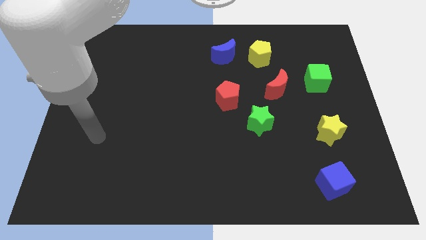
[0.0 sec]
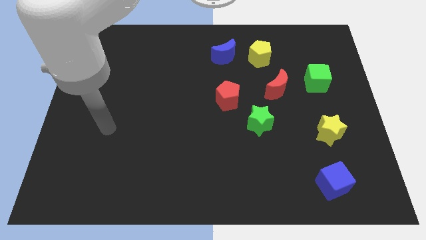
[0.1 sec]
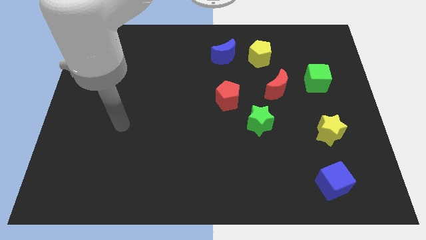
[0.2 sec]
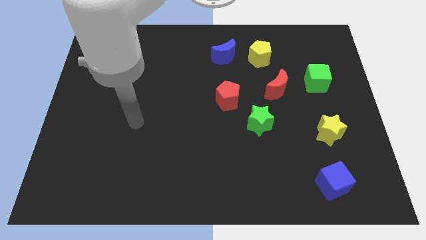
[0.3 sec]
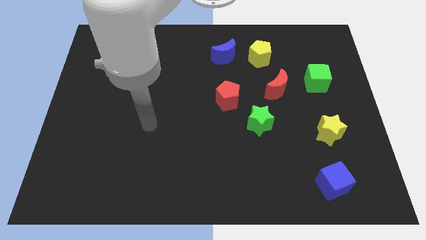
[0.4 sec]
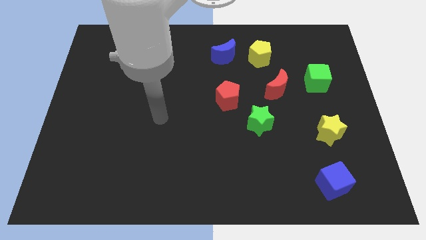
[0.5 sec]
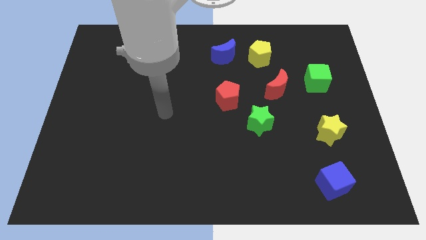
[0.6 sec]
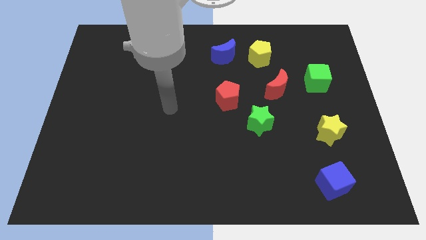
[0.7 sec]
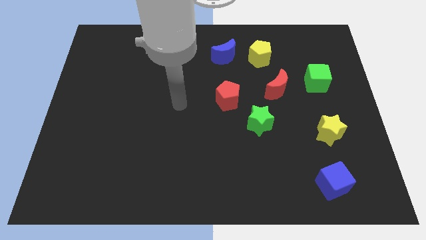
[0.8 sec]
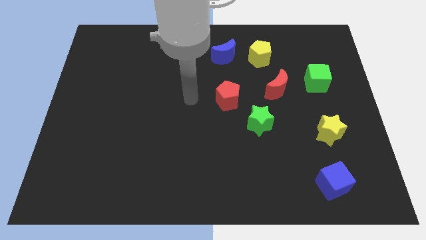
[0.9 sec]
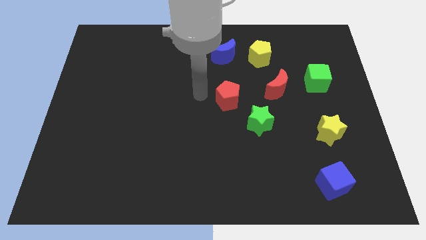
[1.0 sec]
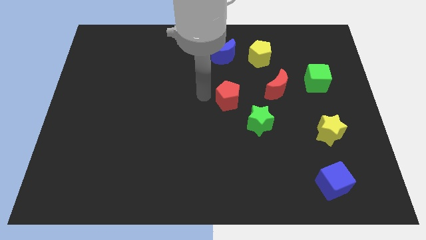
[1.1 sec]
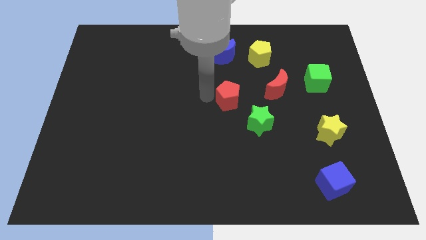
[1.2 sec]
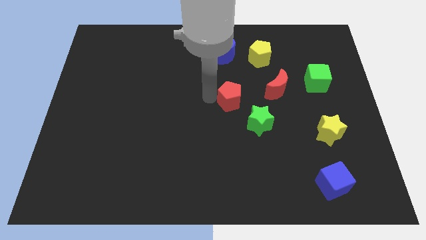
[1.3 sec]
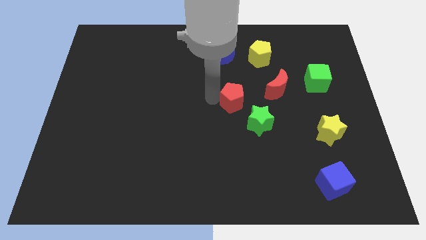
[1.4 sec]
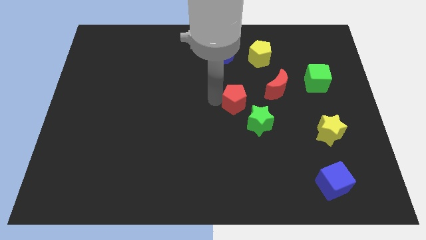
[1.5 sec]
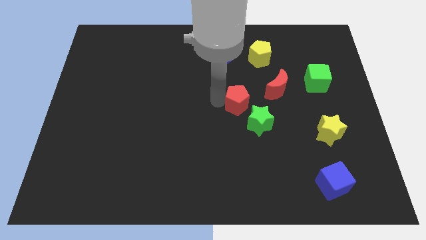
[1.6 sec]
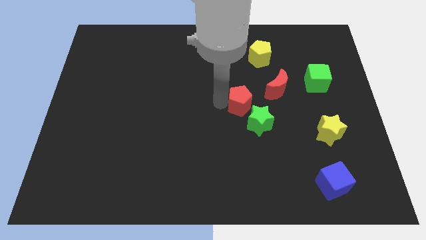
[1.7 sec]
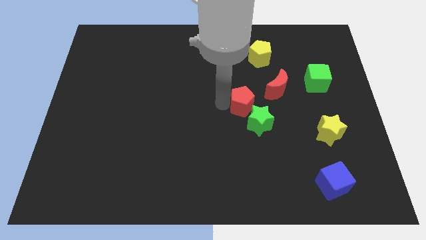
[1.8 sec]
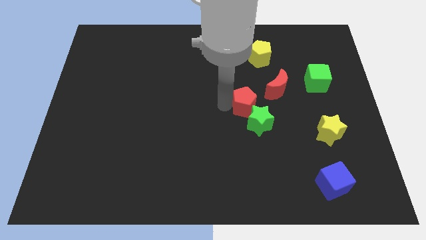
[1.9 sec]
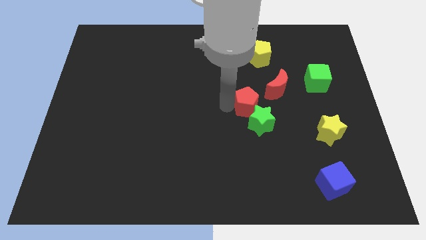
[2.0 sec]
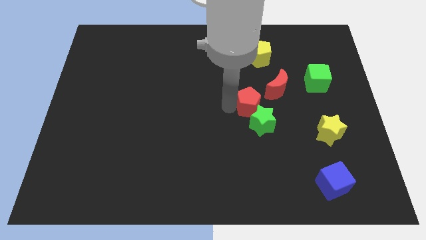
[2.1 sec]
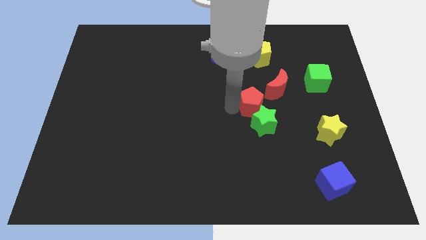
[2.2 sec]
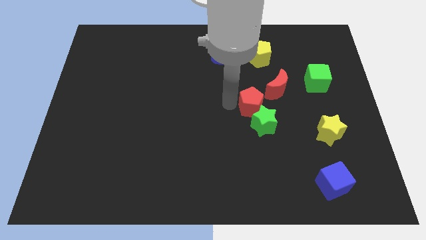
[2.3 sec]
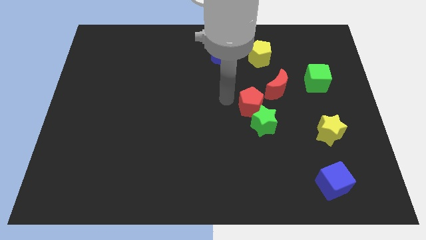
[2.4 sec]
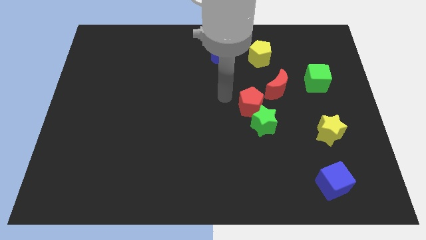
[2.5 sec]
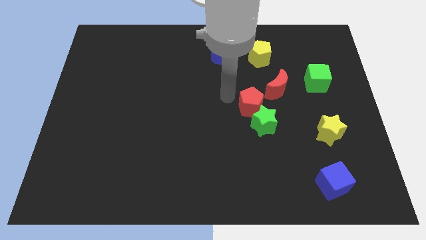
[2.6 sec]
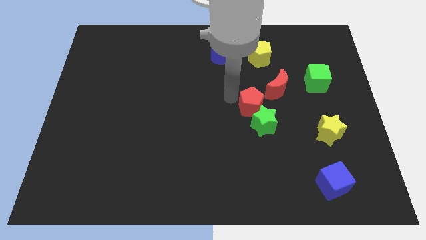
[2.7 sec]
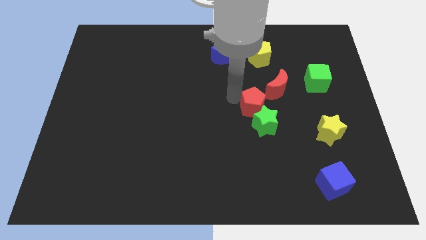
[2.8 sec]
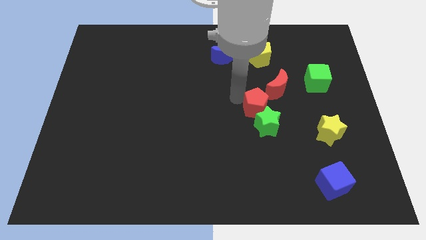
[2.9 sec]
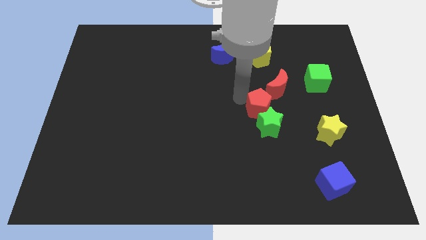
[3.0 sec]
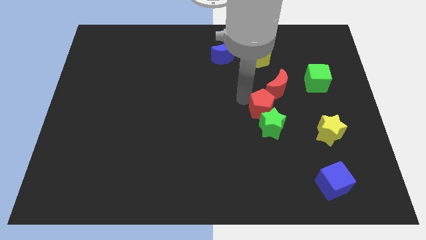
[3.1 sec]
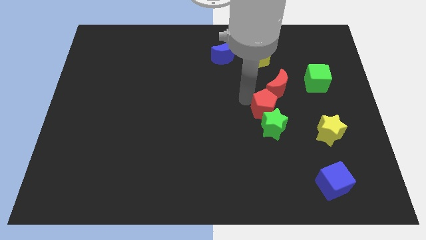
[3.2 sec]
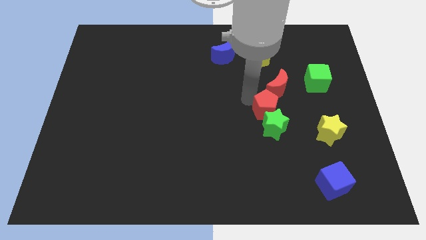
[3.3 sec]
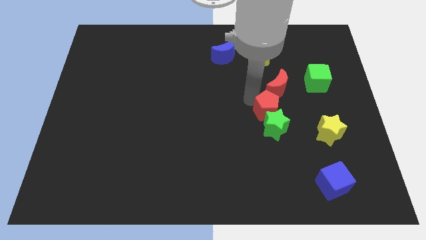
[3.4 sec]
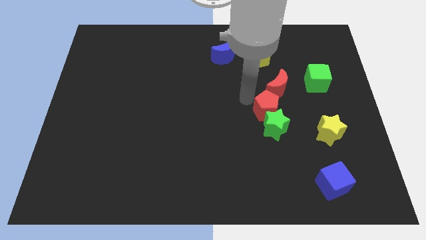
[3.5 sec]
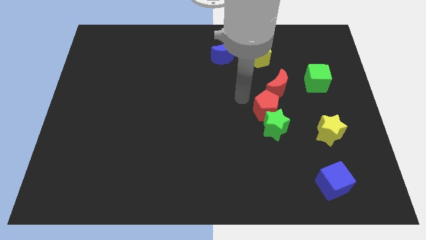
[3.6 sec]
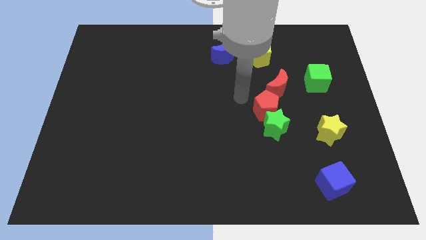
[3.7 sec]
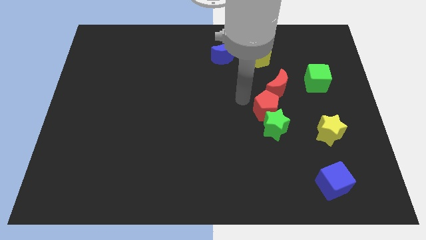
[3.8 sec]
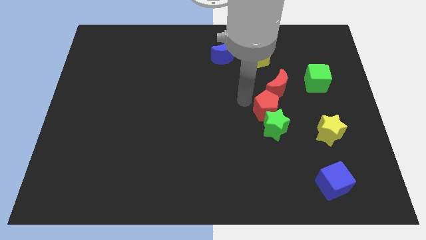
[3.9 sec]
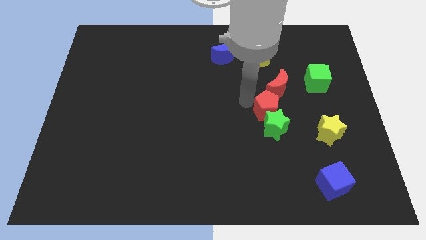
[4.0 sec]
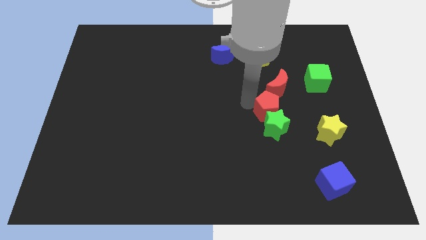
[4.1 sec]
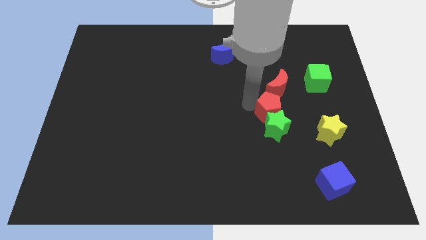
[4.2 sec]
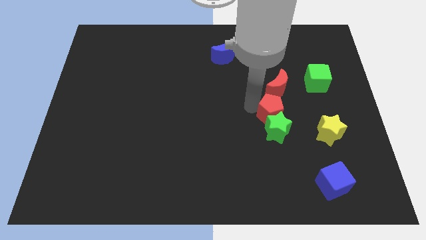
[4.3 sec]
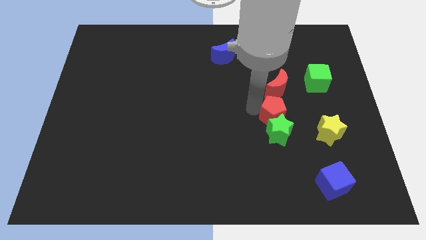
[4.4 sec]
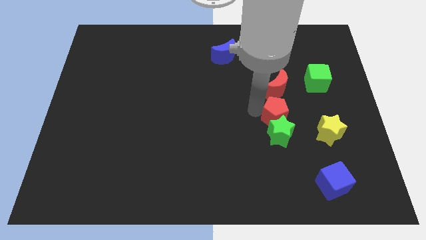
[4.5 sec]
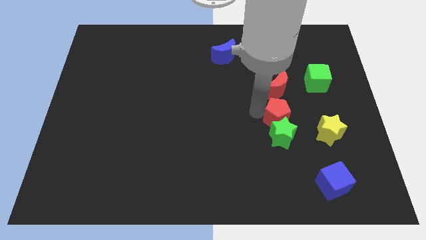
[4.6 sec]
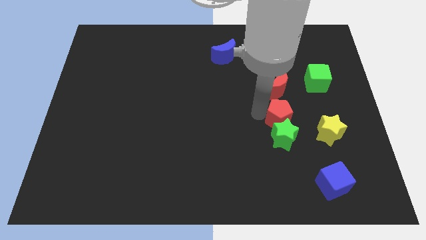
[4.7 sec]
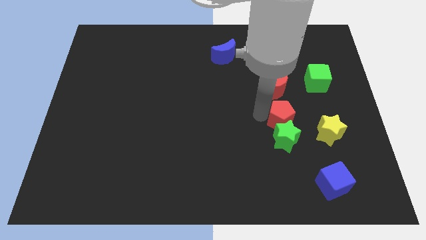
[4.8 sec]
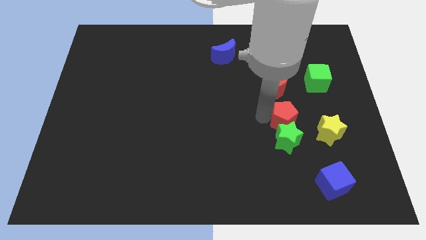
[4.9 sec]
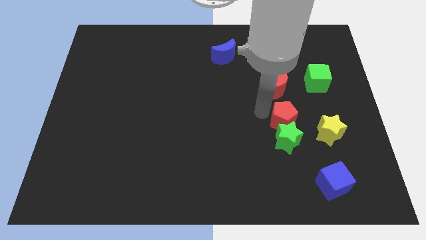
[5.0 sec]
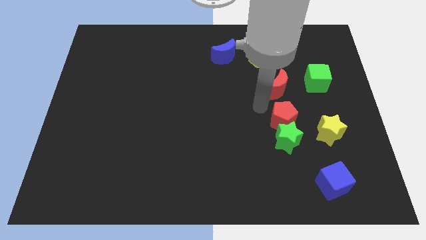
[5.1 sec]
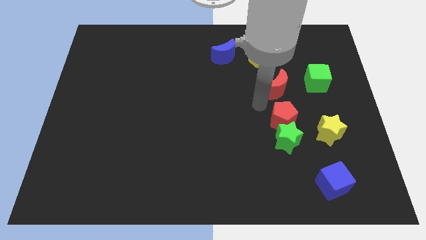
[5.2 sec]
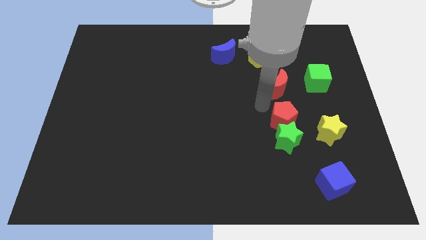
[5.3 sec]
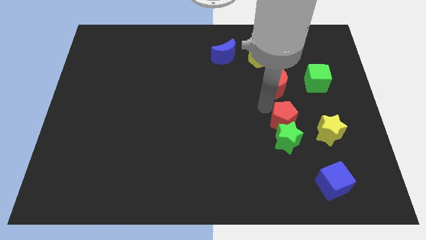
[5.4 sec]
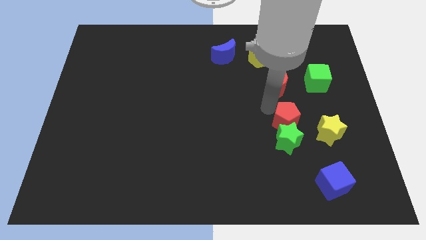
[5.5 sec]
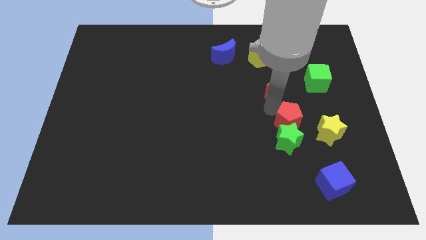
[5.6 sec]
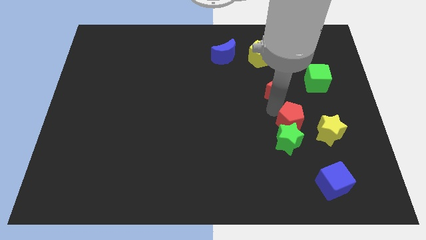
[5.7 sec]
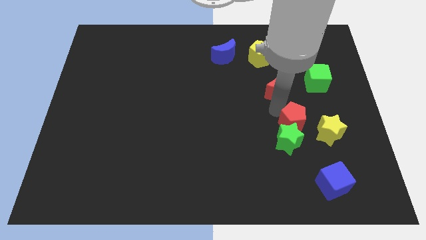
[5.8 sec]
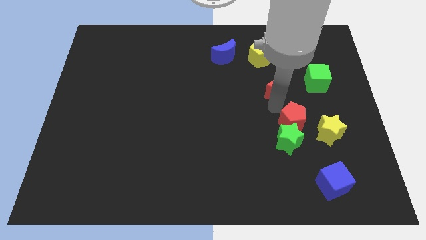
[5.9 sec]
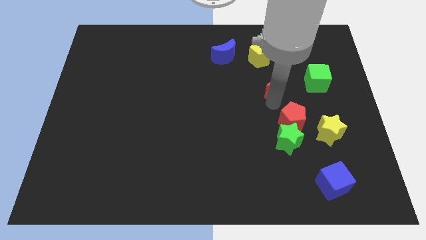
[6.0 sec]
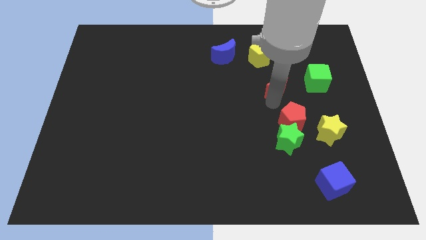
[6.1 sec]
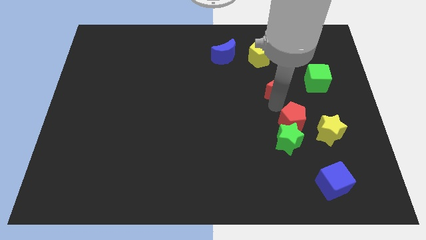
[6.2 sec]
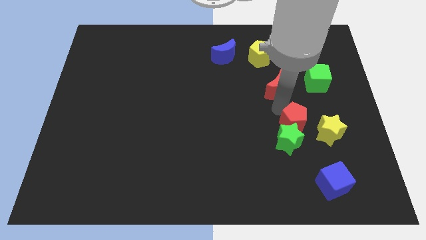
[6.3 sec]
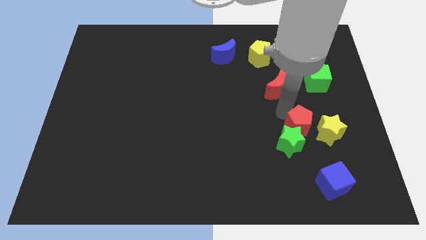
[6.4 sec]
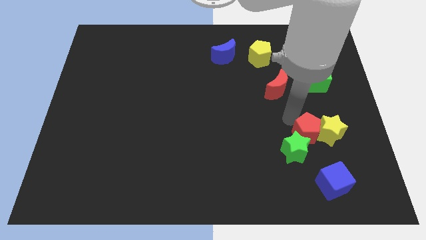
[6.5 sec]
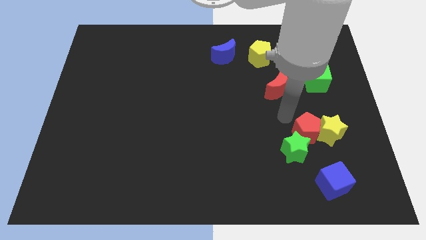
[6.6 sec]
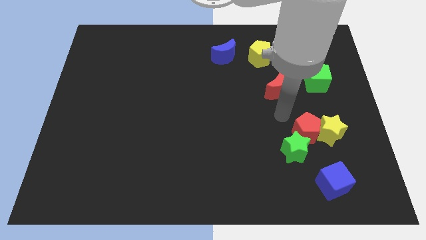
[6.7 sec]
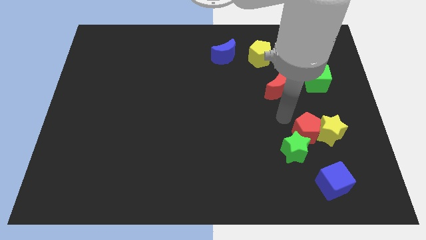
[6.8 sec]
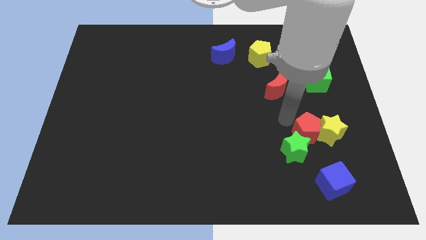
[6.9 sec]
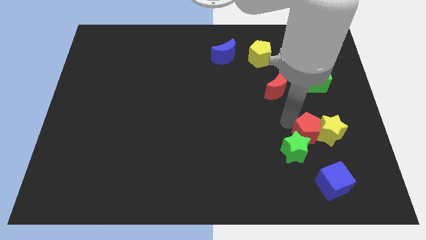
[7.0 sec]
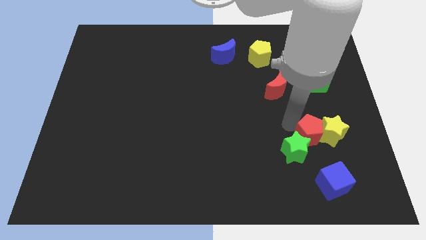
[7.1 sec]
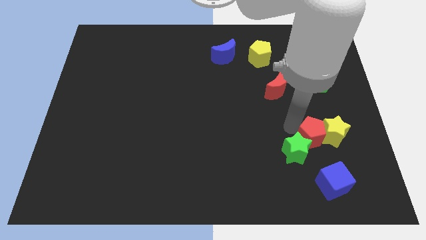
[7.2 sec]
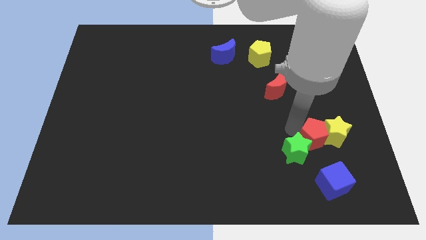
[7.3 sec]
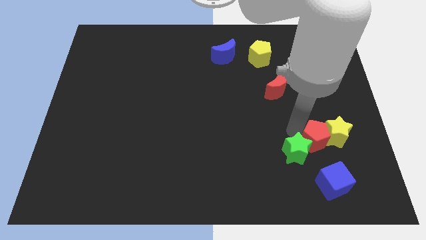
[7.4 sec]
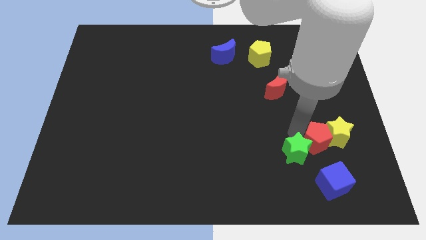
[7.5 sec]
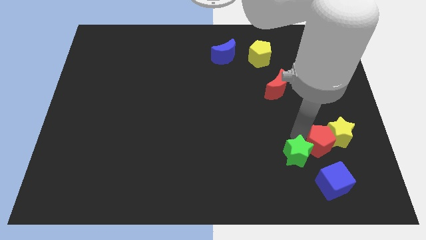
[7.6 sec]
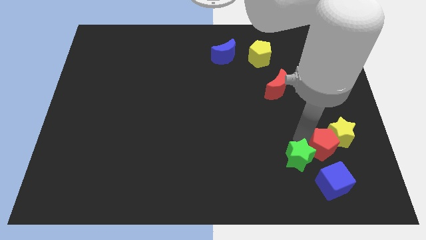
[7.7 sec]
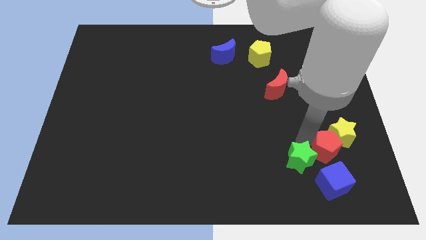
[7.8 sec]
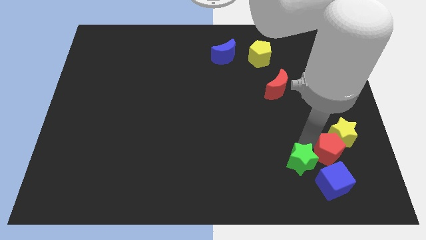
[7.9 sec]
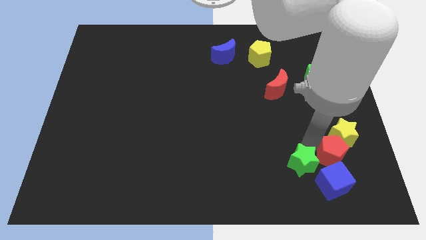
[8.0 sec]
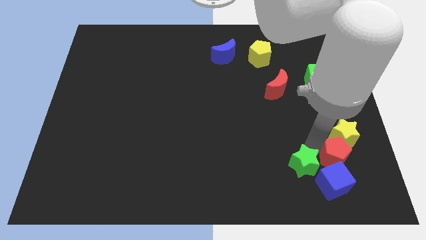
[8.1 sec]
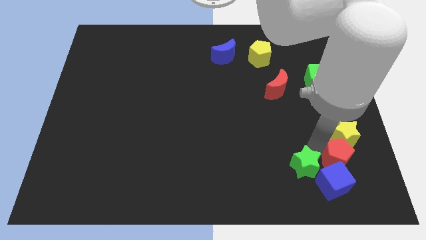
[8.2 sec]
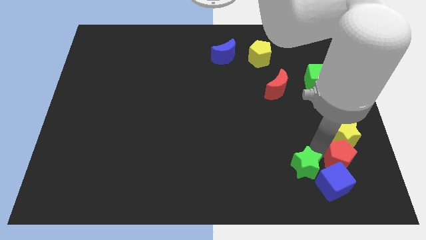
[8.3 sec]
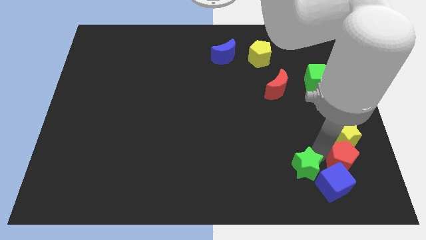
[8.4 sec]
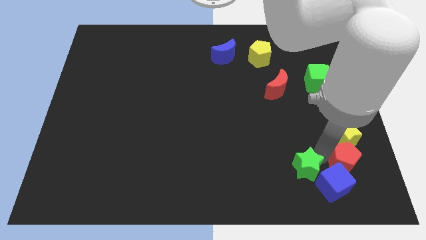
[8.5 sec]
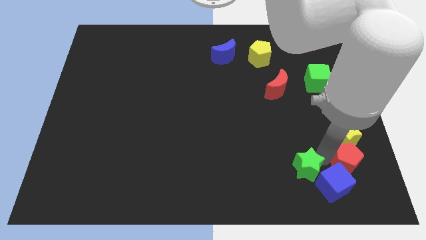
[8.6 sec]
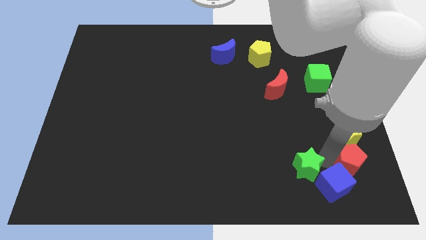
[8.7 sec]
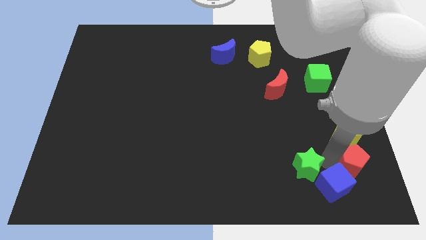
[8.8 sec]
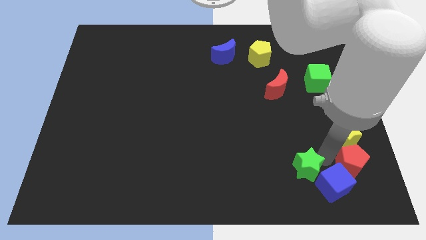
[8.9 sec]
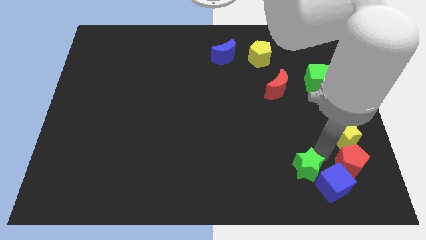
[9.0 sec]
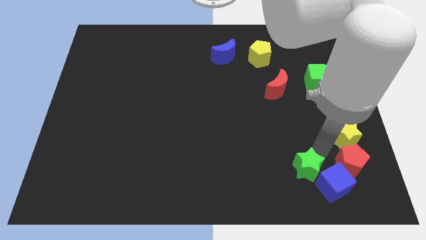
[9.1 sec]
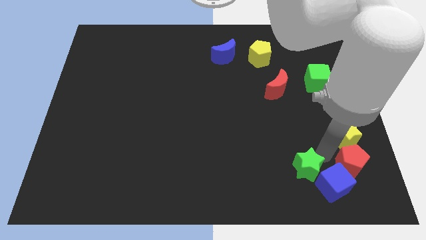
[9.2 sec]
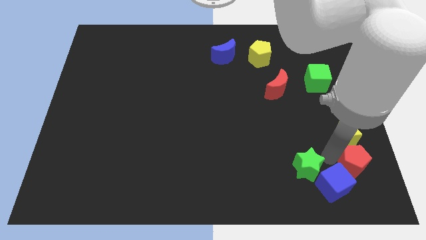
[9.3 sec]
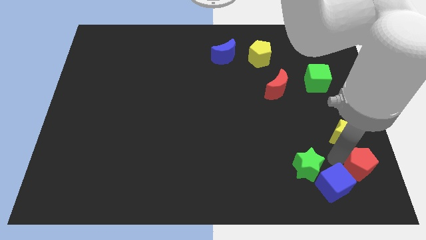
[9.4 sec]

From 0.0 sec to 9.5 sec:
push the red pentagon to the bottom right corner
